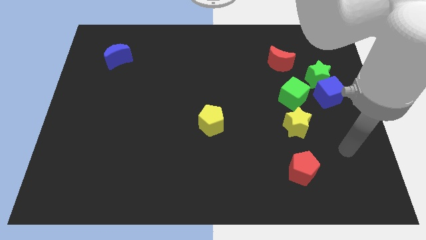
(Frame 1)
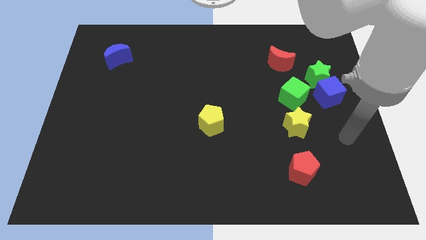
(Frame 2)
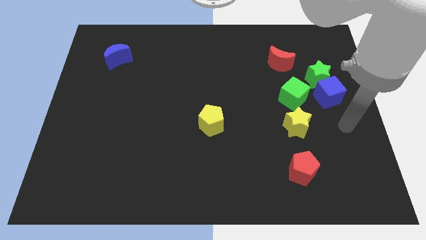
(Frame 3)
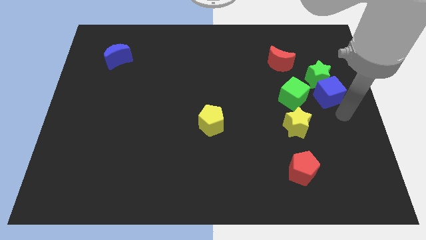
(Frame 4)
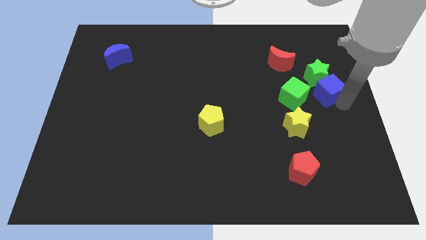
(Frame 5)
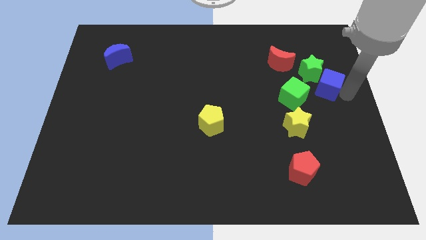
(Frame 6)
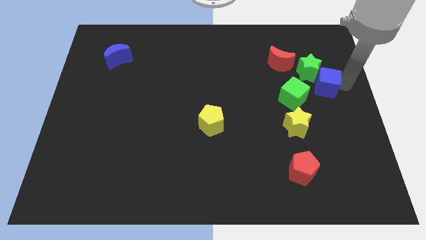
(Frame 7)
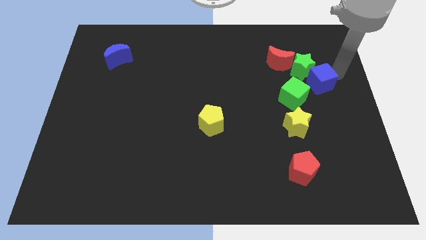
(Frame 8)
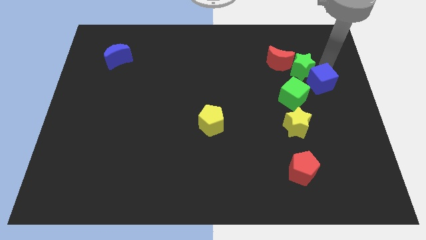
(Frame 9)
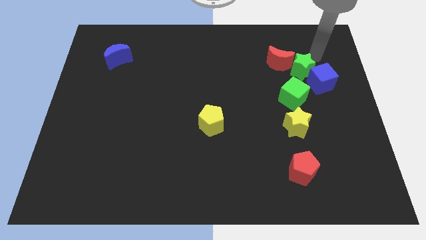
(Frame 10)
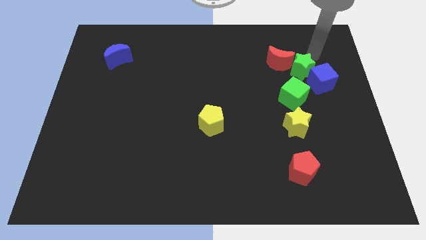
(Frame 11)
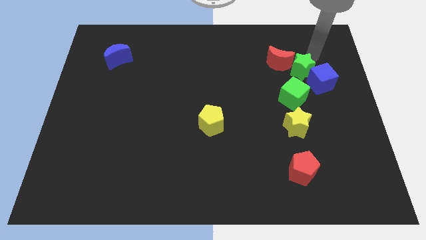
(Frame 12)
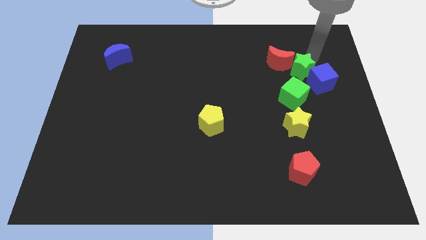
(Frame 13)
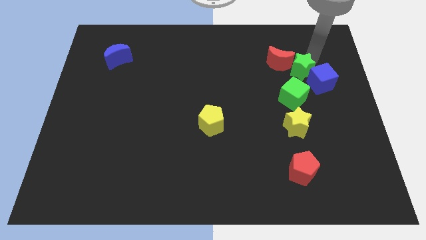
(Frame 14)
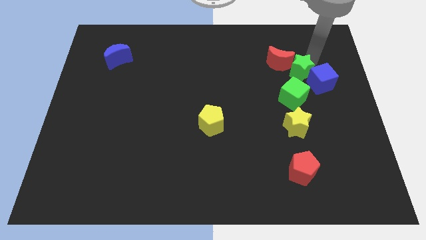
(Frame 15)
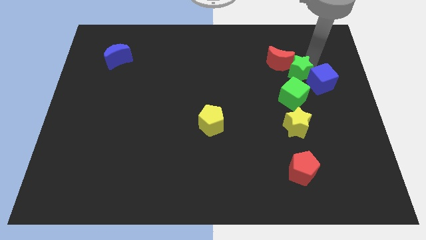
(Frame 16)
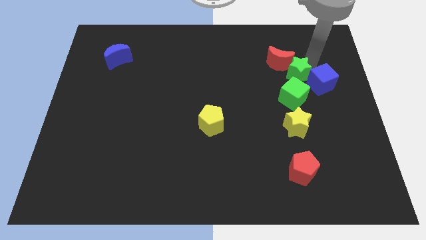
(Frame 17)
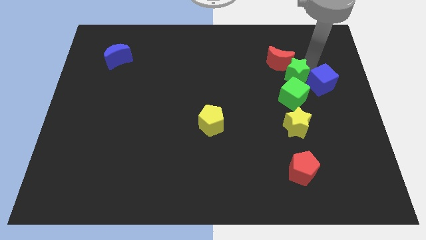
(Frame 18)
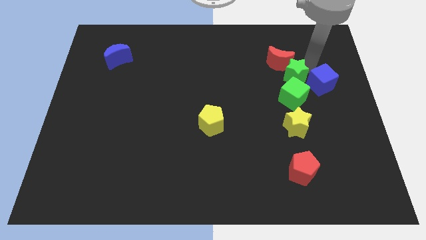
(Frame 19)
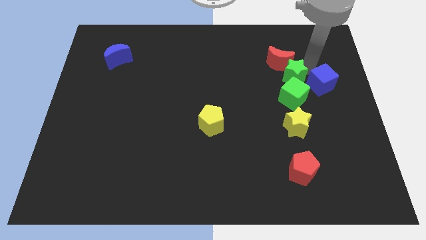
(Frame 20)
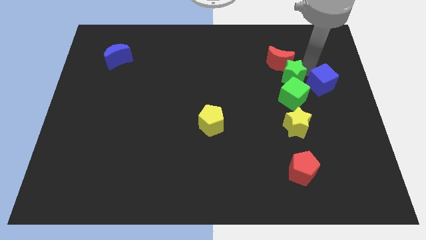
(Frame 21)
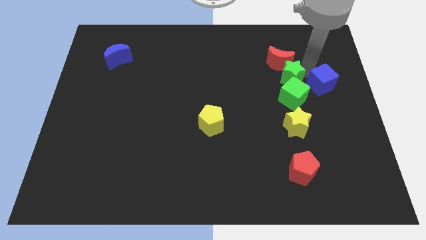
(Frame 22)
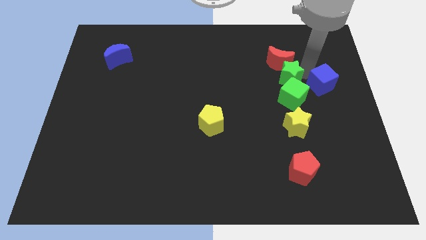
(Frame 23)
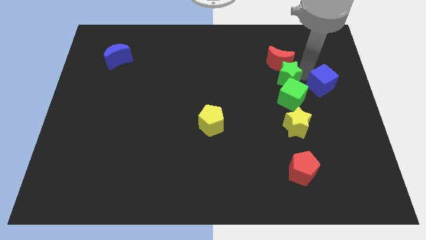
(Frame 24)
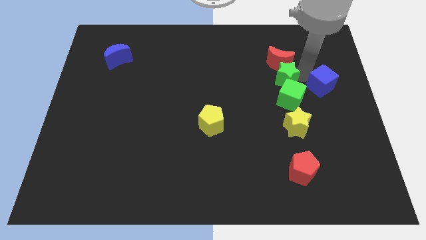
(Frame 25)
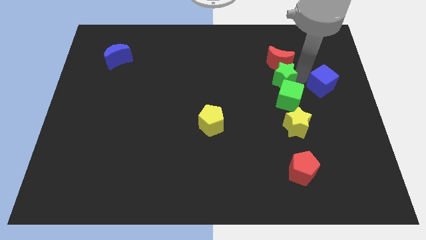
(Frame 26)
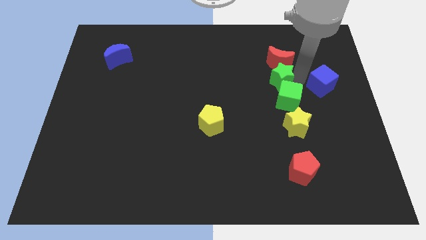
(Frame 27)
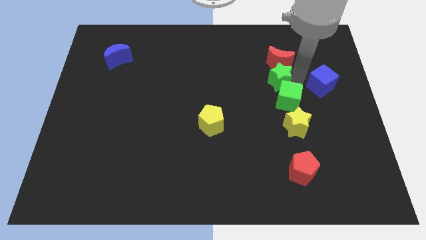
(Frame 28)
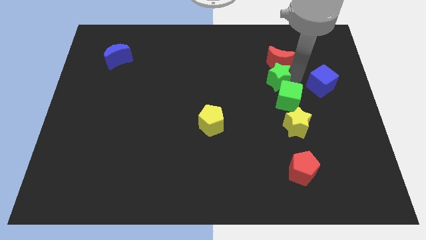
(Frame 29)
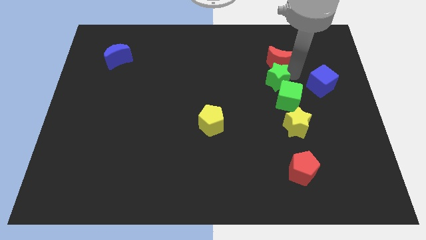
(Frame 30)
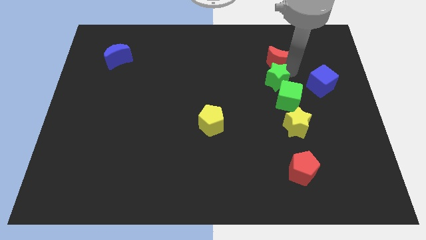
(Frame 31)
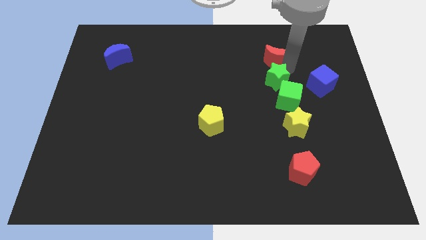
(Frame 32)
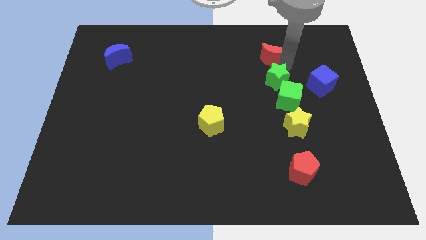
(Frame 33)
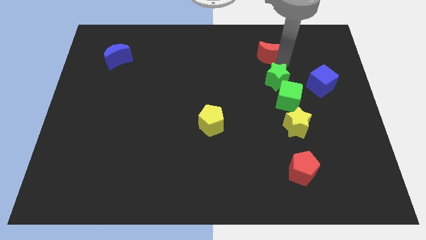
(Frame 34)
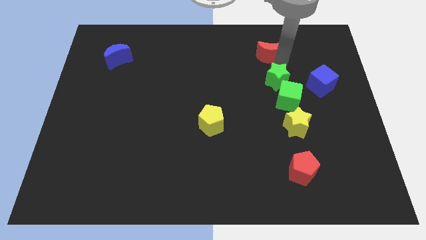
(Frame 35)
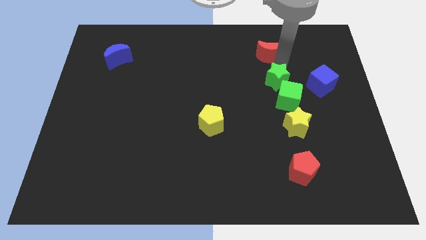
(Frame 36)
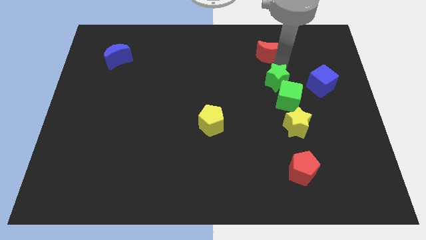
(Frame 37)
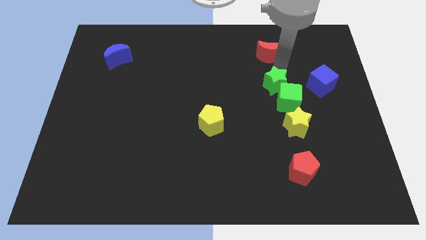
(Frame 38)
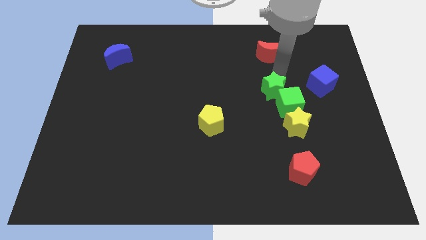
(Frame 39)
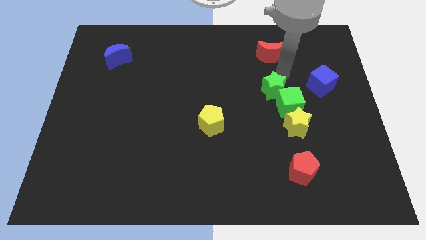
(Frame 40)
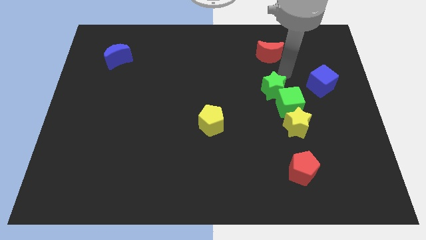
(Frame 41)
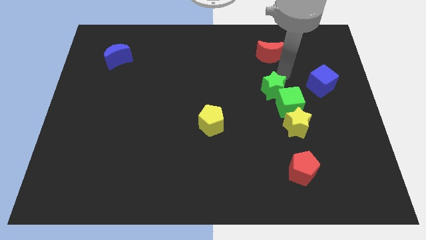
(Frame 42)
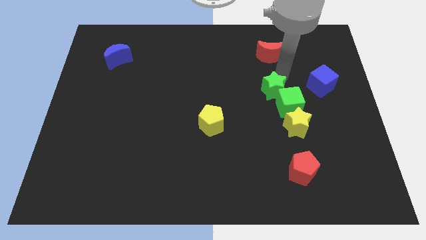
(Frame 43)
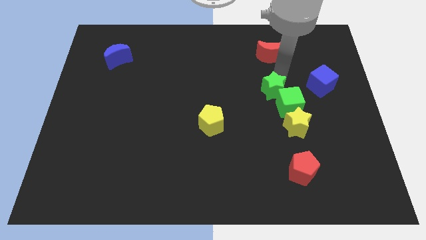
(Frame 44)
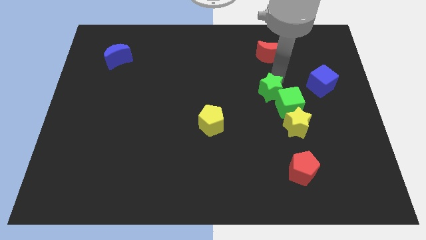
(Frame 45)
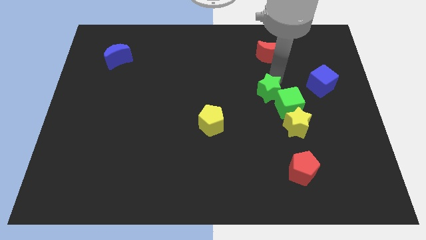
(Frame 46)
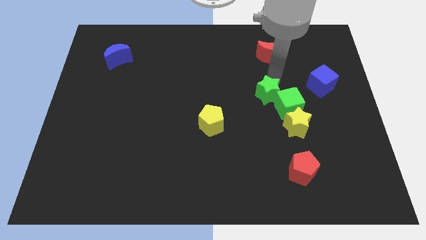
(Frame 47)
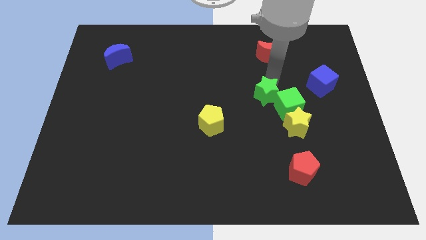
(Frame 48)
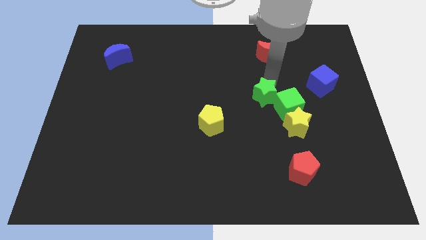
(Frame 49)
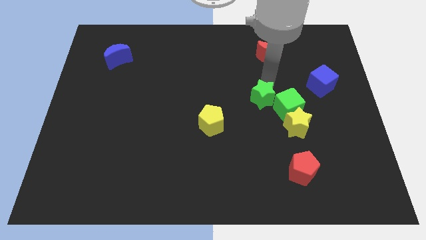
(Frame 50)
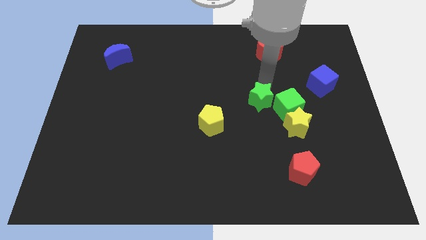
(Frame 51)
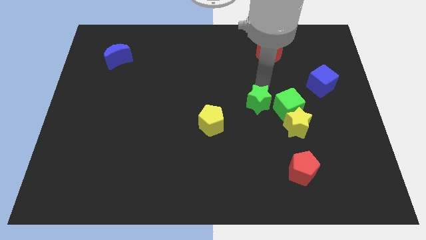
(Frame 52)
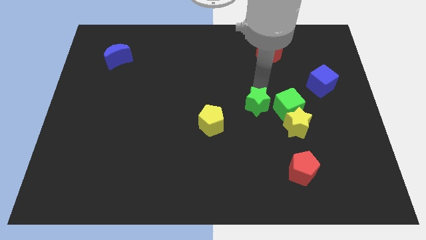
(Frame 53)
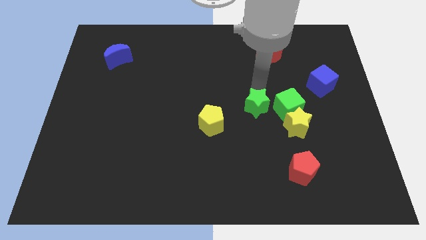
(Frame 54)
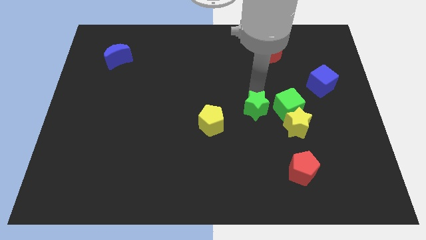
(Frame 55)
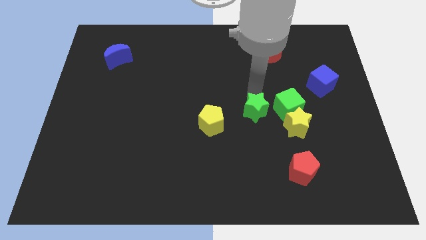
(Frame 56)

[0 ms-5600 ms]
push the green star just left of the yellow star

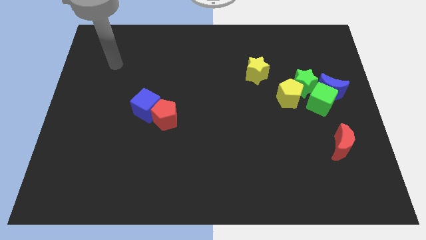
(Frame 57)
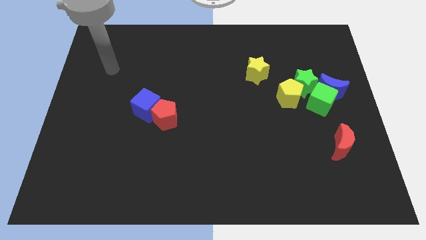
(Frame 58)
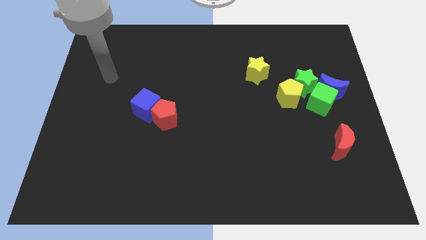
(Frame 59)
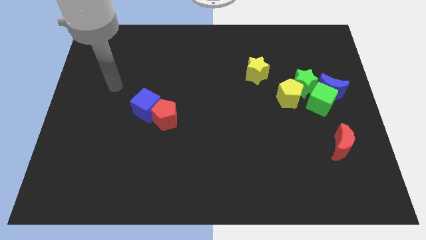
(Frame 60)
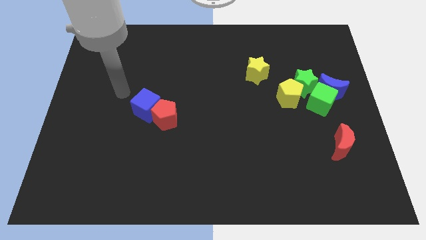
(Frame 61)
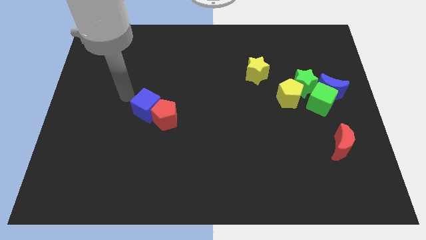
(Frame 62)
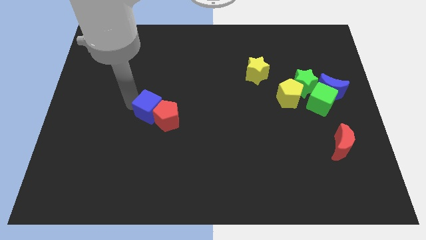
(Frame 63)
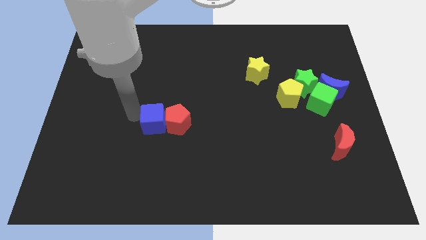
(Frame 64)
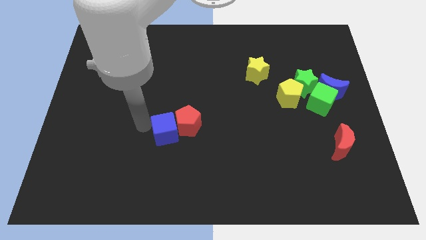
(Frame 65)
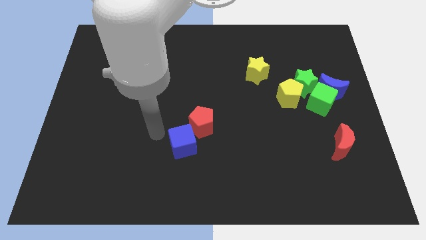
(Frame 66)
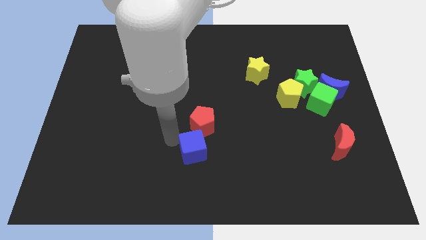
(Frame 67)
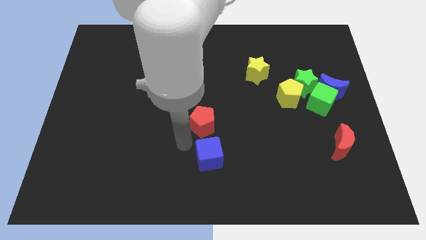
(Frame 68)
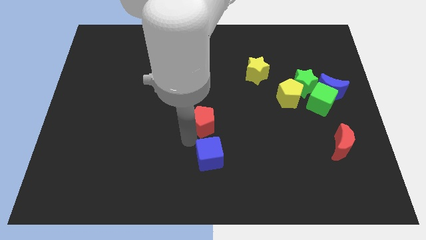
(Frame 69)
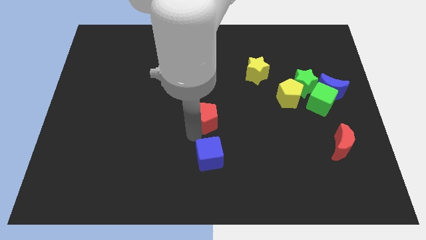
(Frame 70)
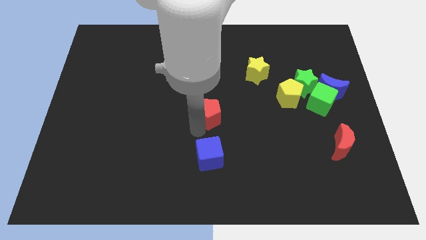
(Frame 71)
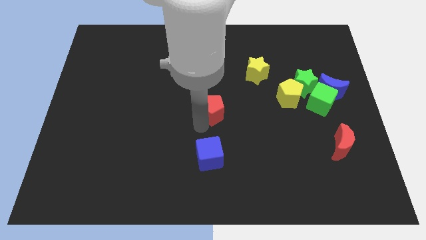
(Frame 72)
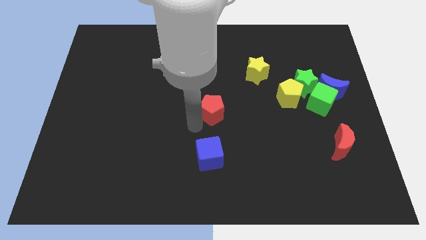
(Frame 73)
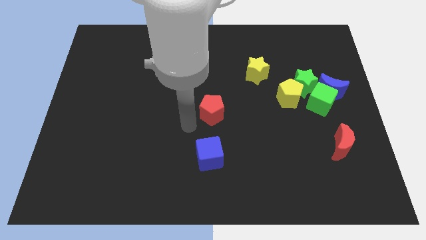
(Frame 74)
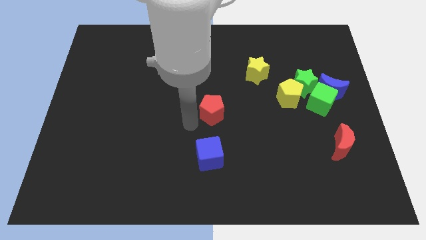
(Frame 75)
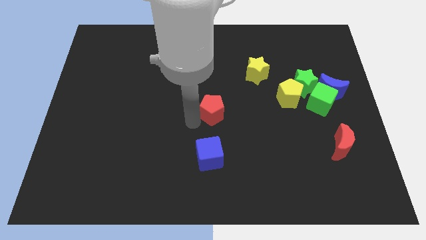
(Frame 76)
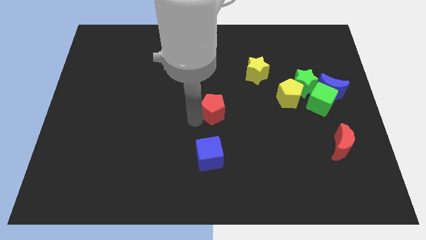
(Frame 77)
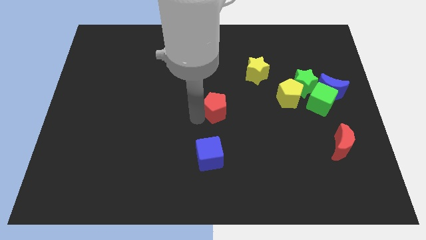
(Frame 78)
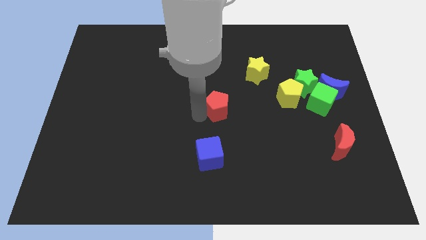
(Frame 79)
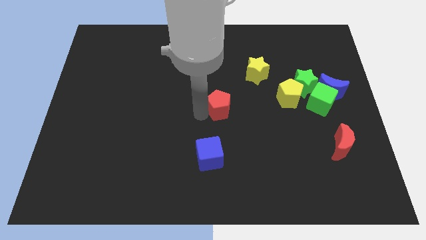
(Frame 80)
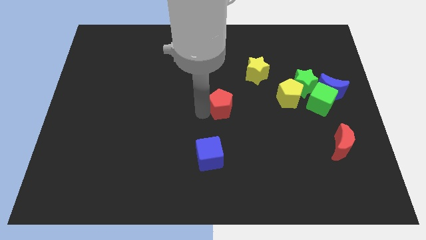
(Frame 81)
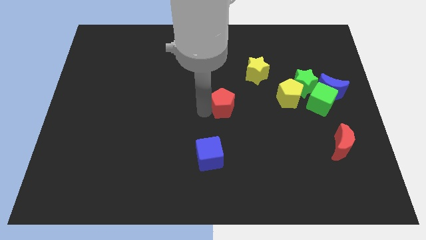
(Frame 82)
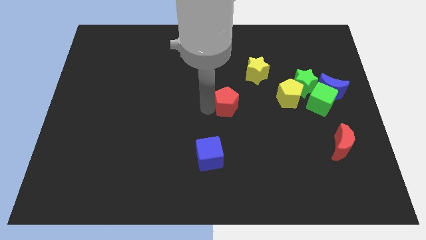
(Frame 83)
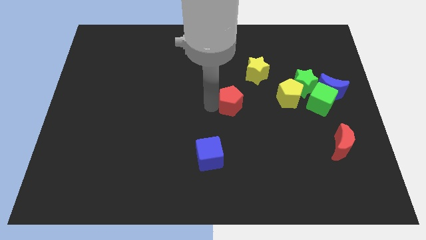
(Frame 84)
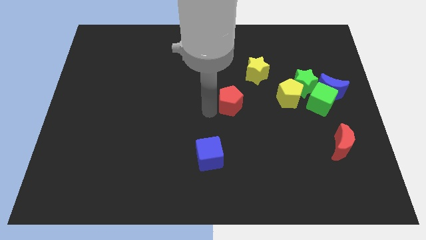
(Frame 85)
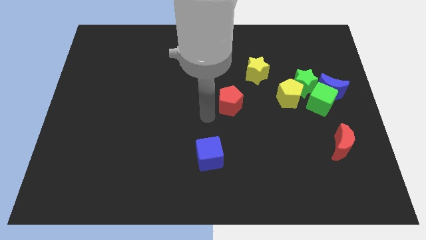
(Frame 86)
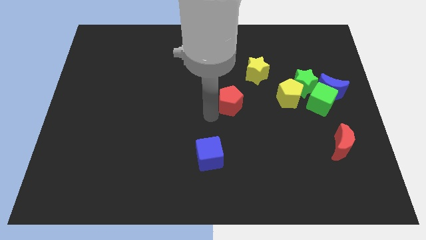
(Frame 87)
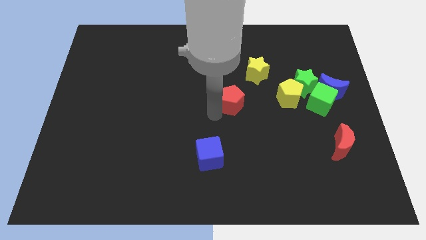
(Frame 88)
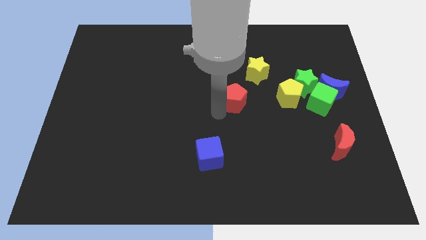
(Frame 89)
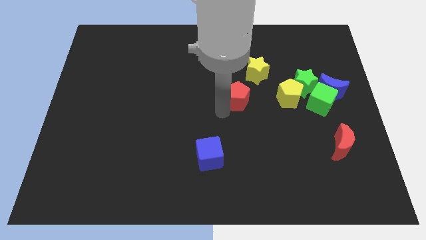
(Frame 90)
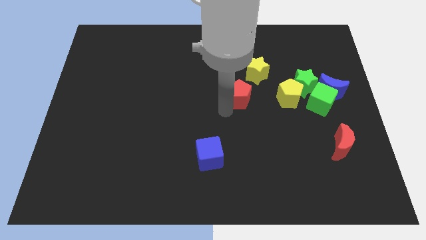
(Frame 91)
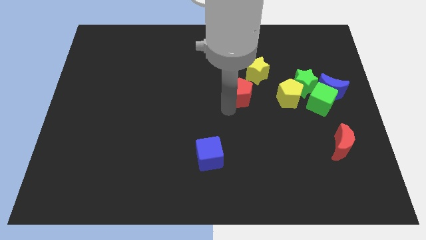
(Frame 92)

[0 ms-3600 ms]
put the red pentagon to the left side of the green star
